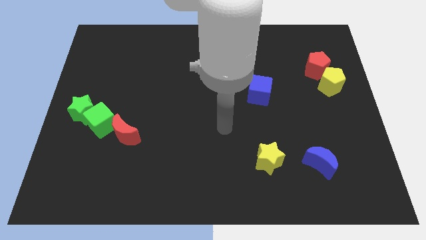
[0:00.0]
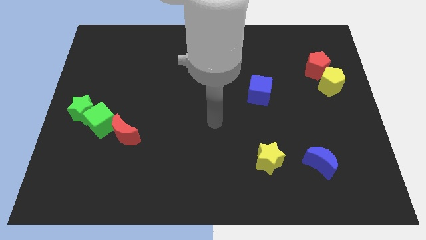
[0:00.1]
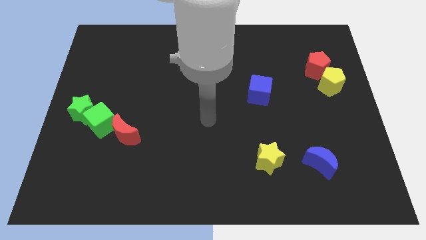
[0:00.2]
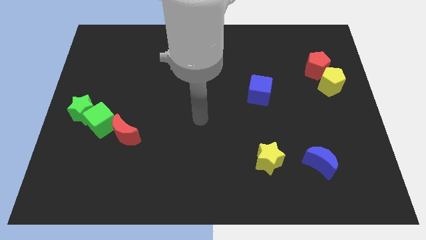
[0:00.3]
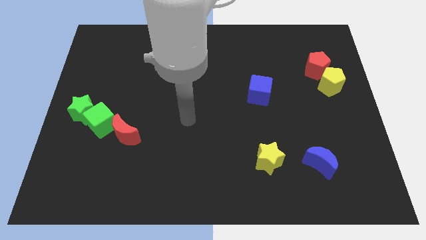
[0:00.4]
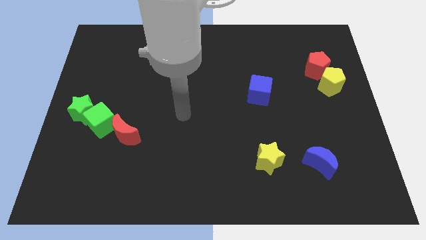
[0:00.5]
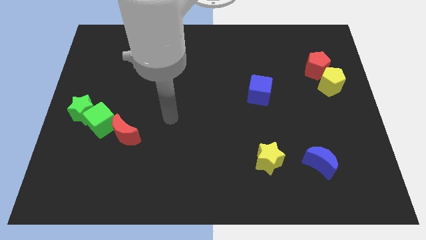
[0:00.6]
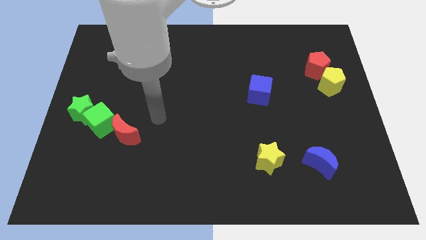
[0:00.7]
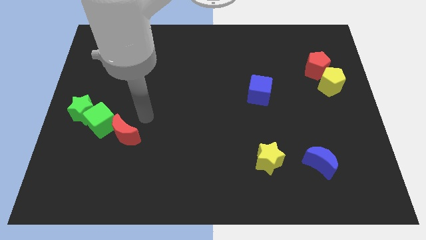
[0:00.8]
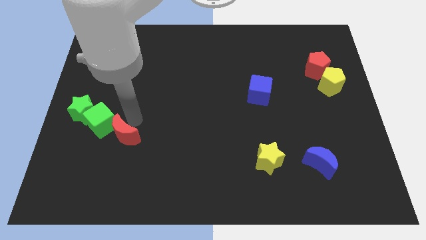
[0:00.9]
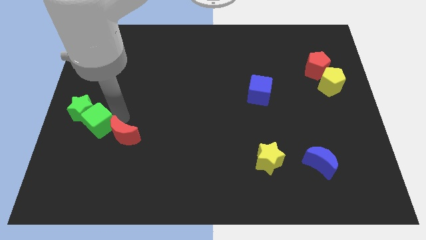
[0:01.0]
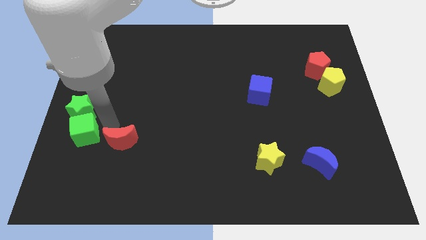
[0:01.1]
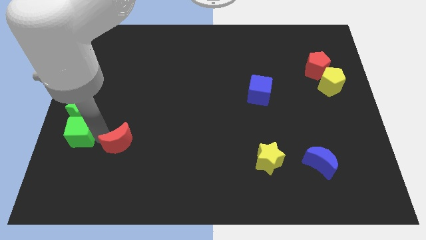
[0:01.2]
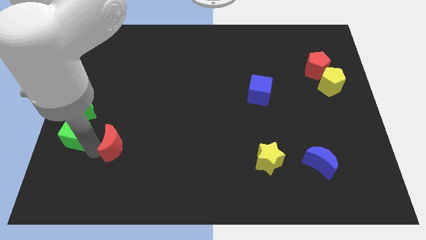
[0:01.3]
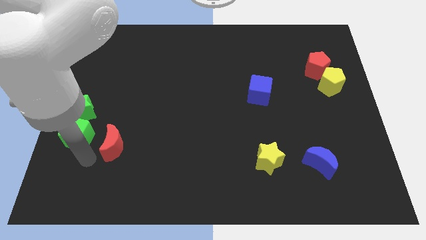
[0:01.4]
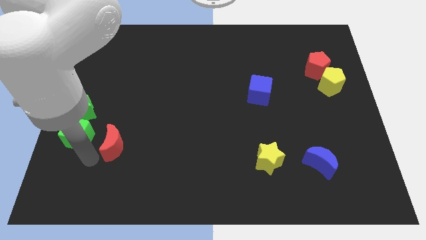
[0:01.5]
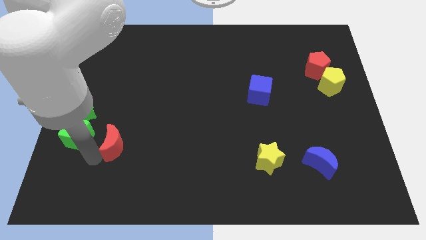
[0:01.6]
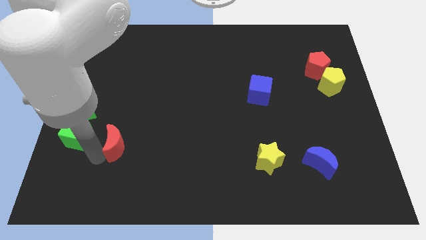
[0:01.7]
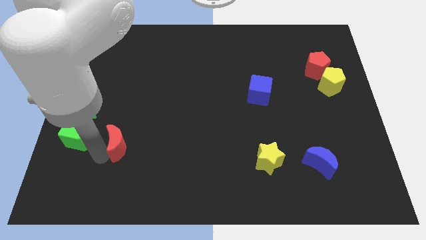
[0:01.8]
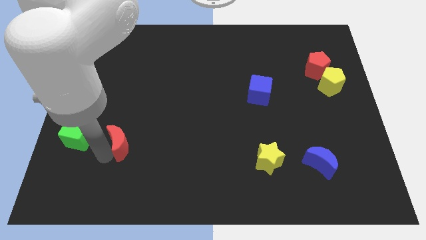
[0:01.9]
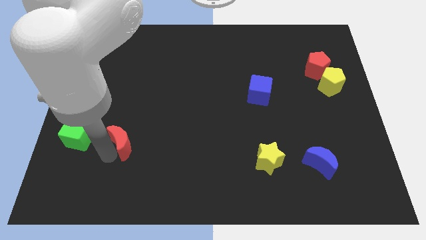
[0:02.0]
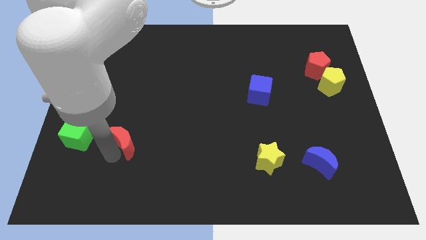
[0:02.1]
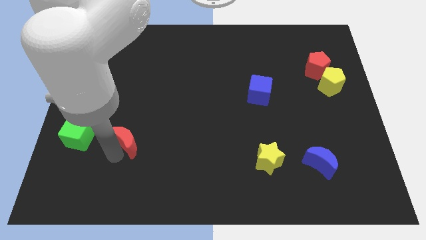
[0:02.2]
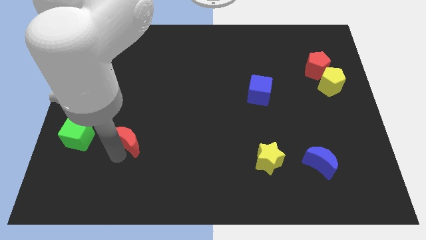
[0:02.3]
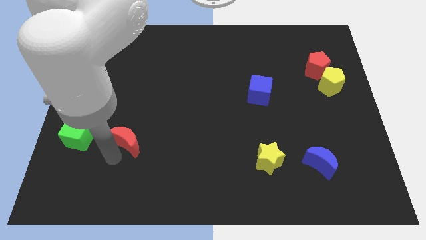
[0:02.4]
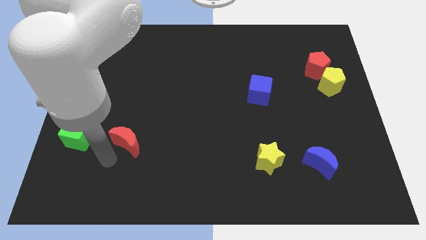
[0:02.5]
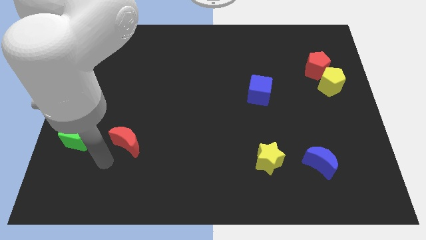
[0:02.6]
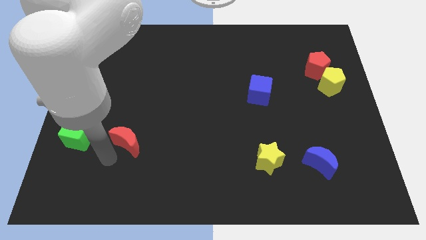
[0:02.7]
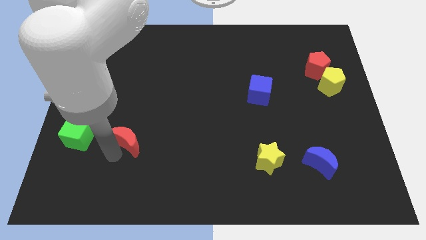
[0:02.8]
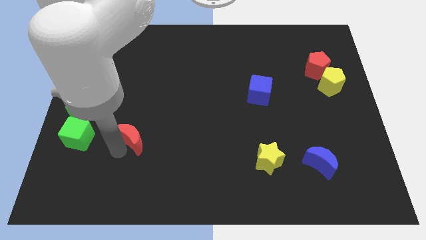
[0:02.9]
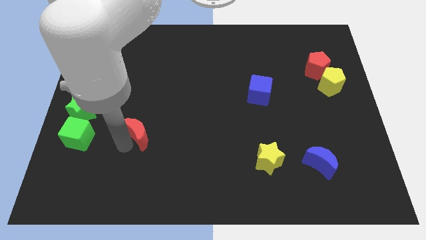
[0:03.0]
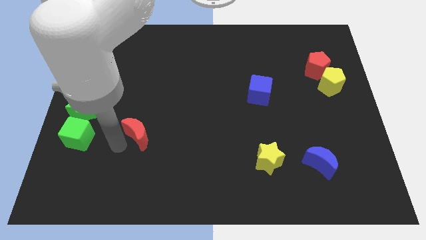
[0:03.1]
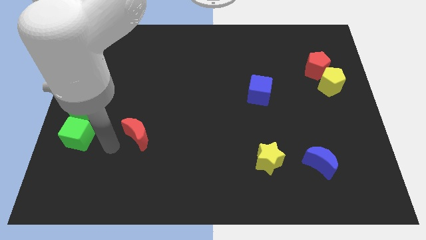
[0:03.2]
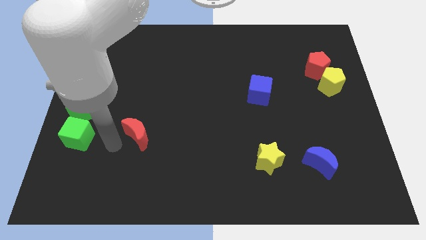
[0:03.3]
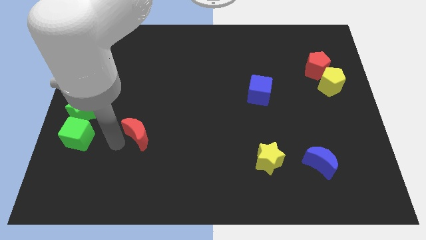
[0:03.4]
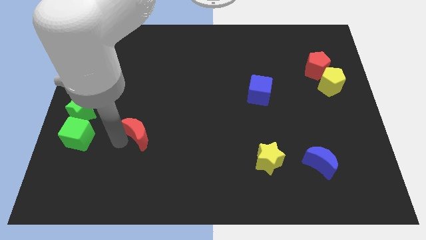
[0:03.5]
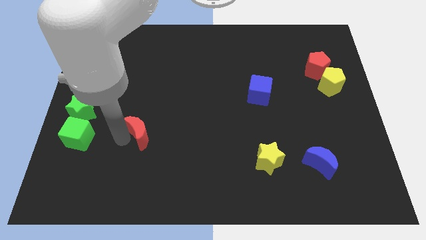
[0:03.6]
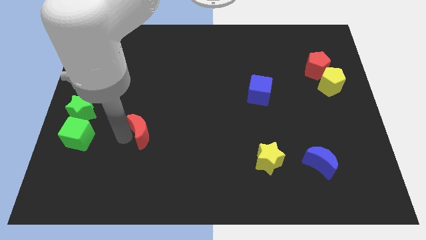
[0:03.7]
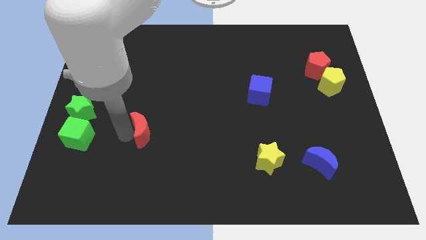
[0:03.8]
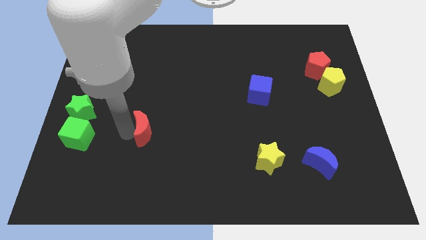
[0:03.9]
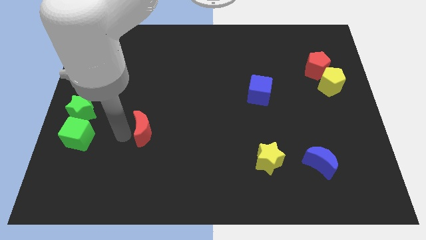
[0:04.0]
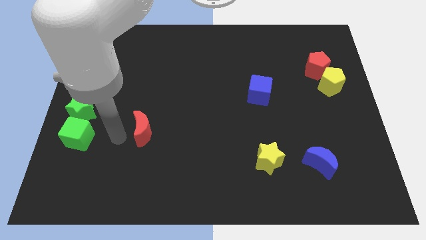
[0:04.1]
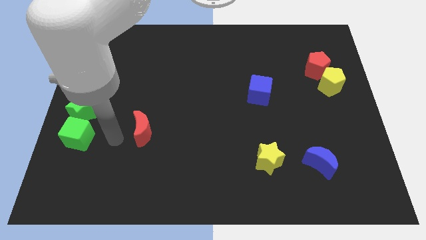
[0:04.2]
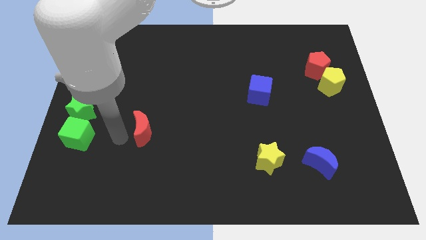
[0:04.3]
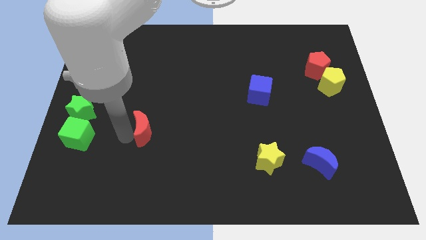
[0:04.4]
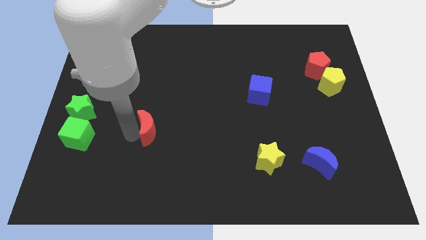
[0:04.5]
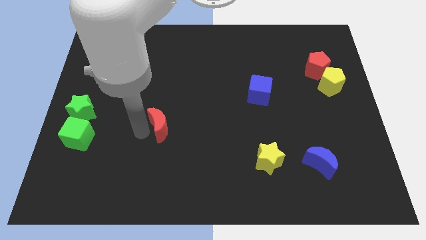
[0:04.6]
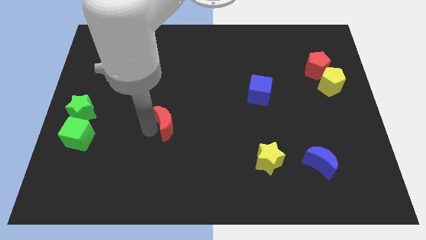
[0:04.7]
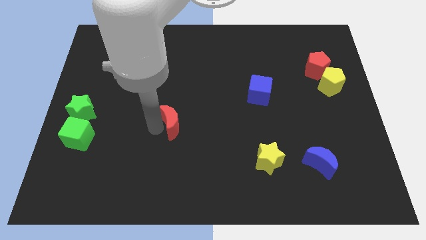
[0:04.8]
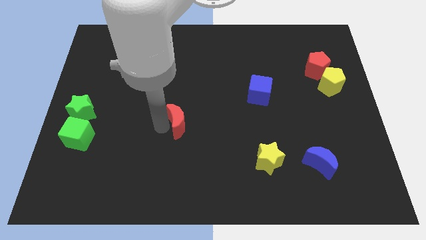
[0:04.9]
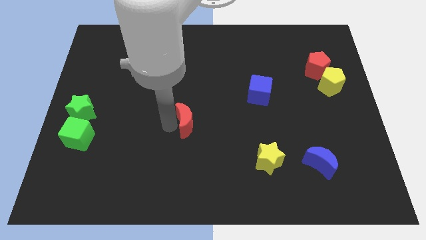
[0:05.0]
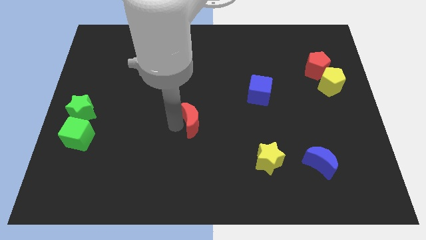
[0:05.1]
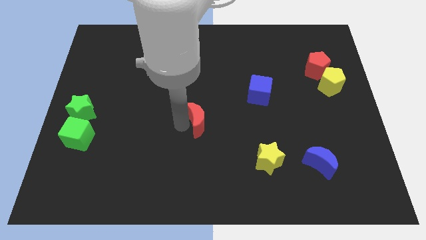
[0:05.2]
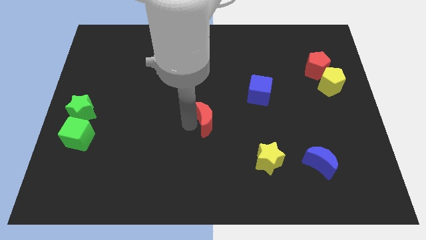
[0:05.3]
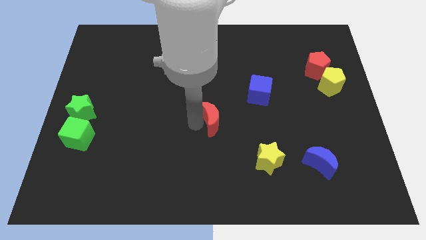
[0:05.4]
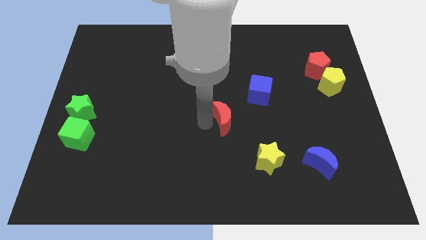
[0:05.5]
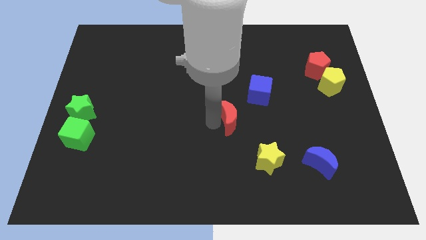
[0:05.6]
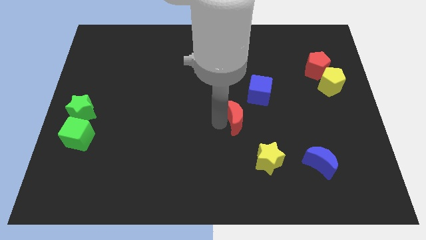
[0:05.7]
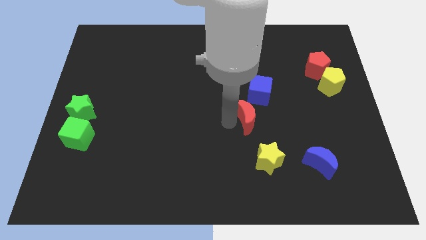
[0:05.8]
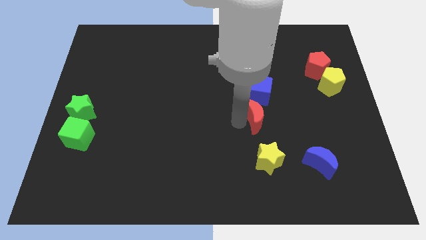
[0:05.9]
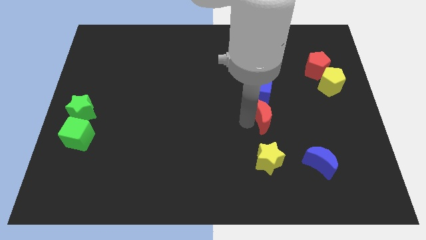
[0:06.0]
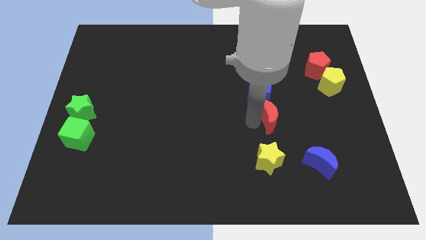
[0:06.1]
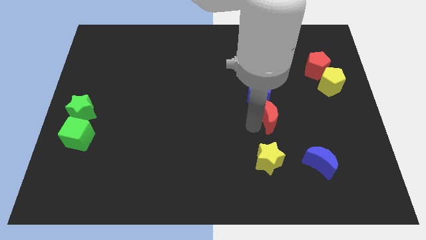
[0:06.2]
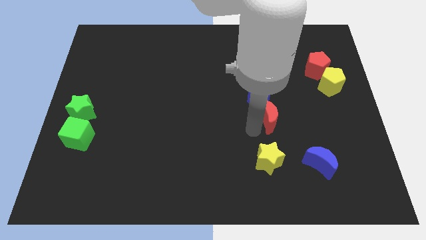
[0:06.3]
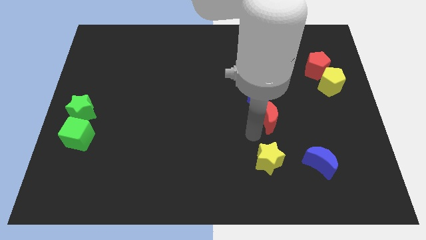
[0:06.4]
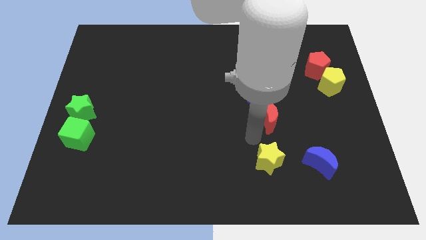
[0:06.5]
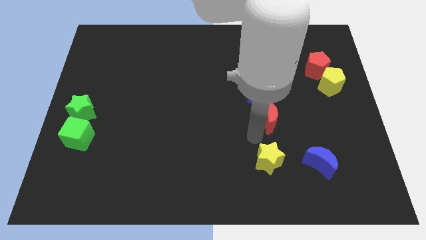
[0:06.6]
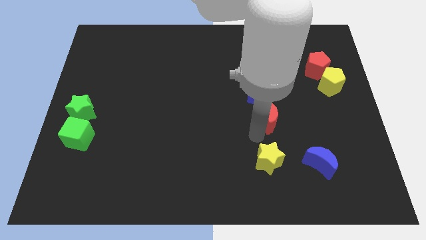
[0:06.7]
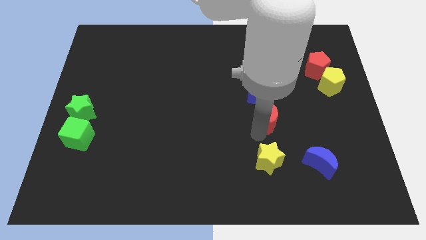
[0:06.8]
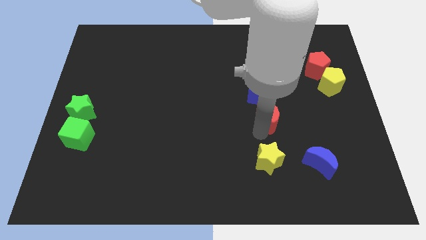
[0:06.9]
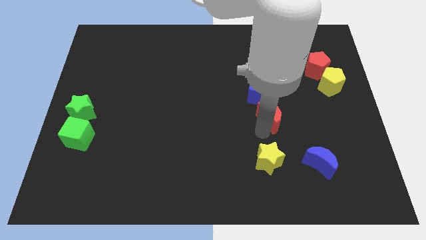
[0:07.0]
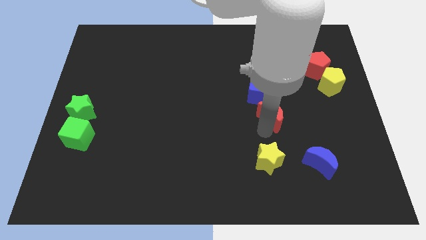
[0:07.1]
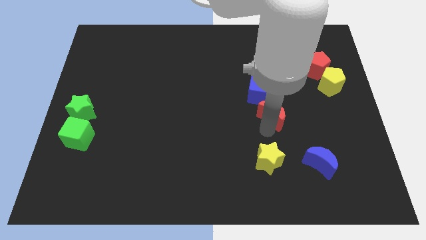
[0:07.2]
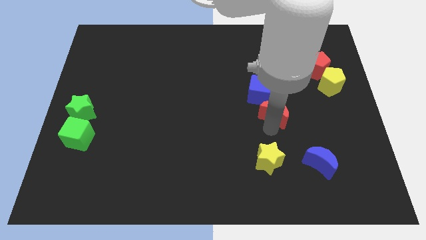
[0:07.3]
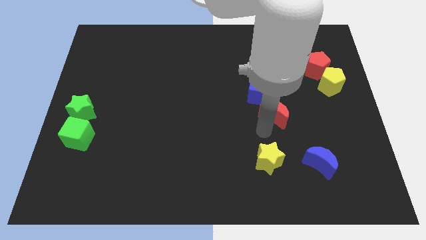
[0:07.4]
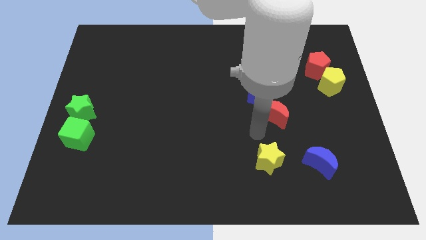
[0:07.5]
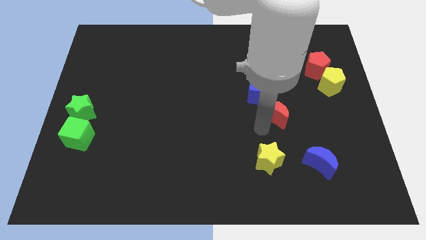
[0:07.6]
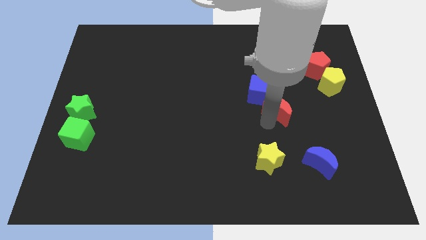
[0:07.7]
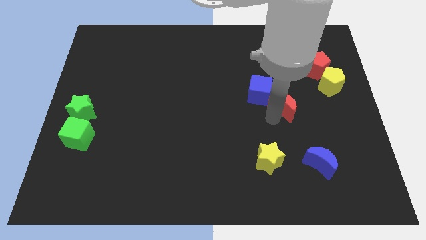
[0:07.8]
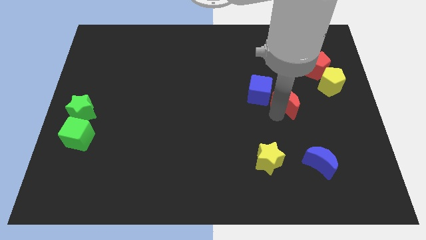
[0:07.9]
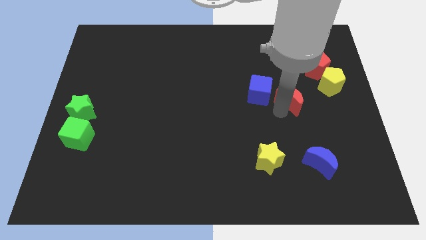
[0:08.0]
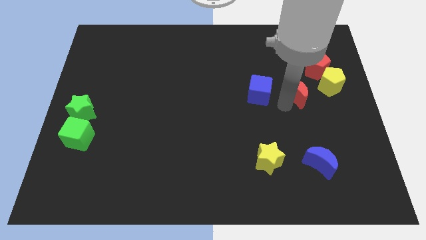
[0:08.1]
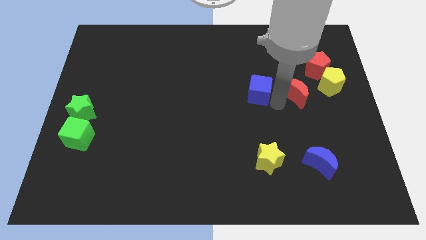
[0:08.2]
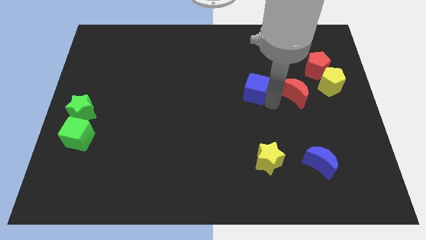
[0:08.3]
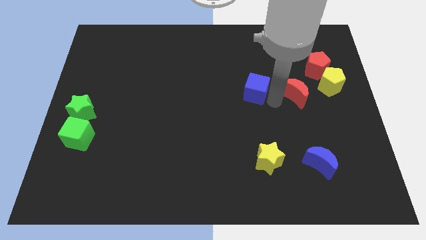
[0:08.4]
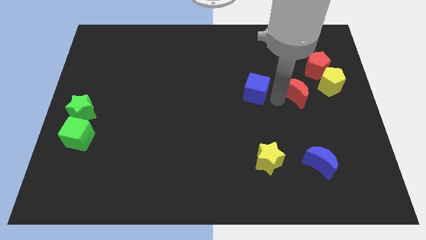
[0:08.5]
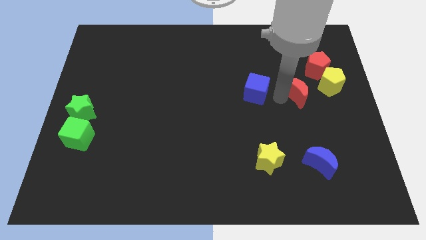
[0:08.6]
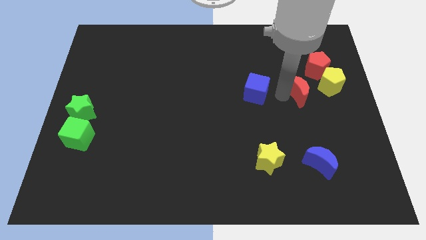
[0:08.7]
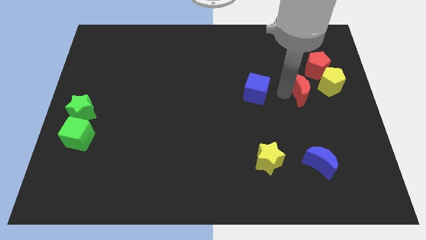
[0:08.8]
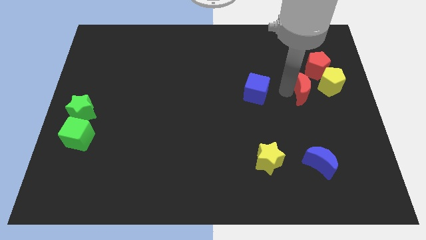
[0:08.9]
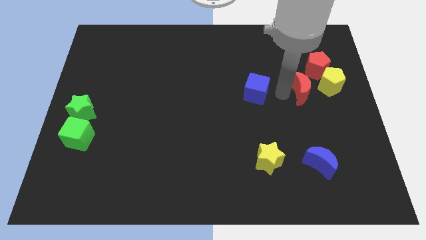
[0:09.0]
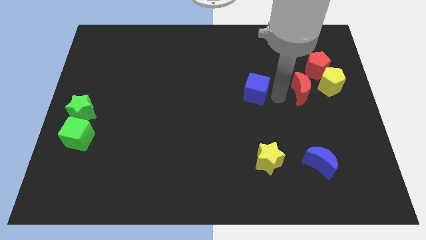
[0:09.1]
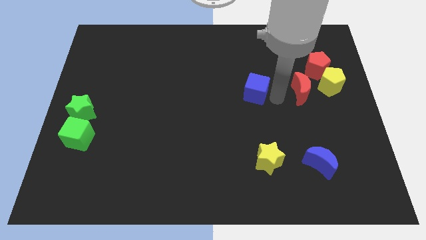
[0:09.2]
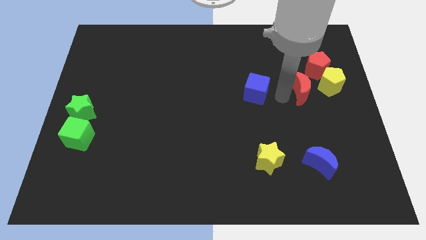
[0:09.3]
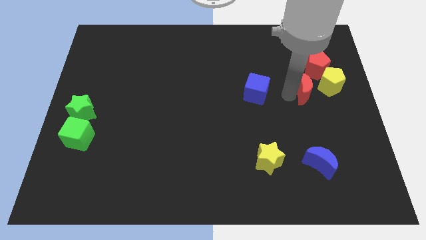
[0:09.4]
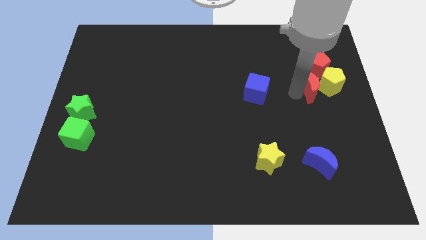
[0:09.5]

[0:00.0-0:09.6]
push the red moon close to the yellow pentagon
